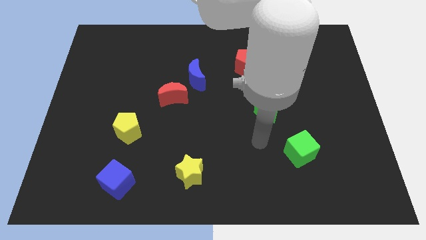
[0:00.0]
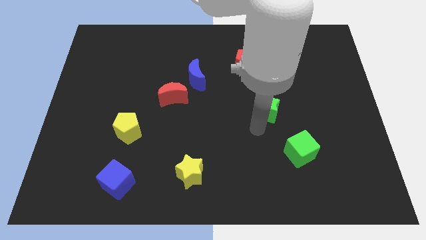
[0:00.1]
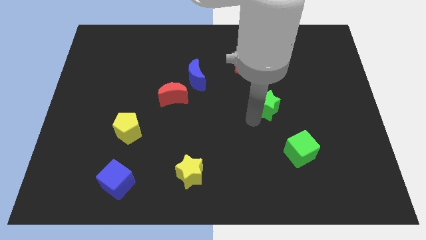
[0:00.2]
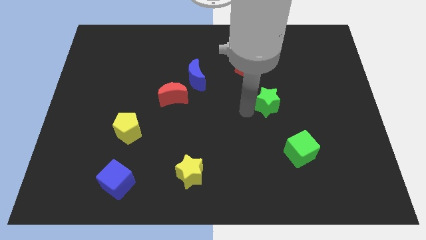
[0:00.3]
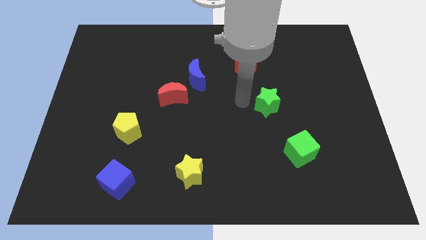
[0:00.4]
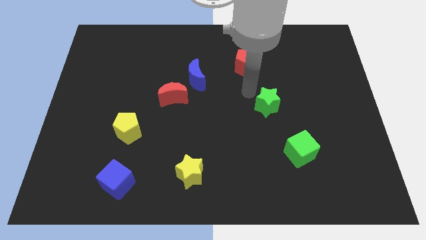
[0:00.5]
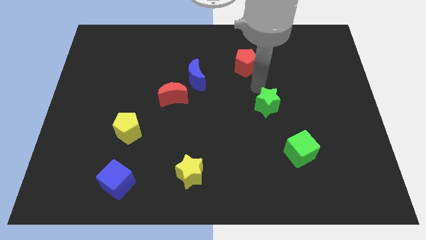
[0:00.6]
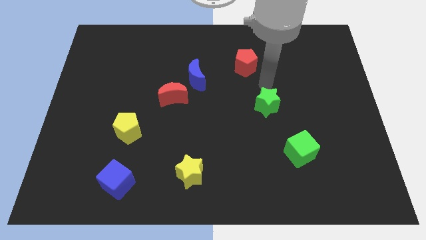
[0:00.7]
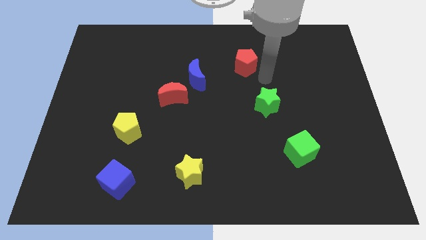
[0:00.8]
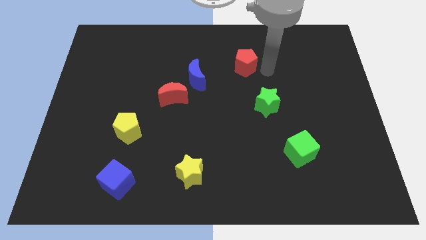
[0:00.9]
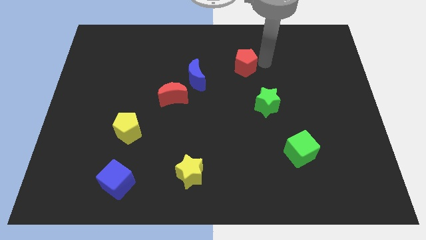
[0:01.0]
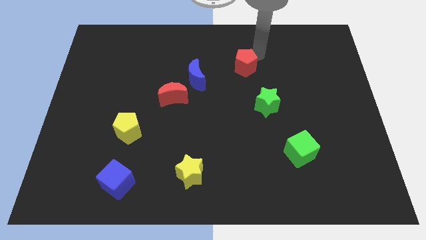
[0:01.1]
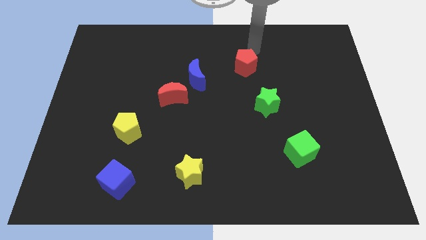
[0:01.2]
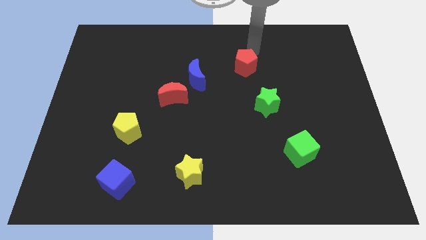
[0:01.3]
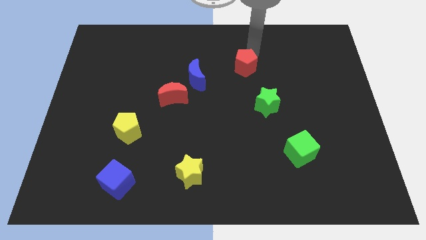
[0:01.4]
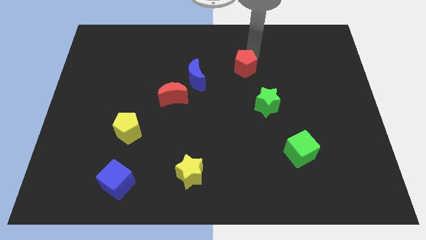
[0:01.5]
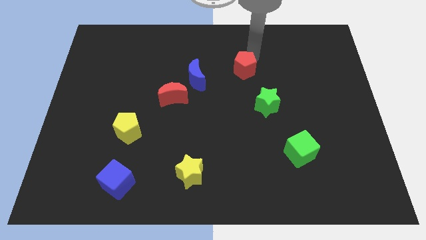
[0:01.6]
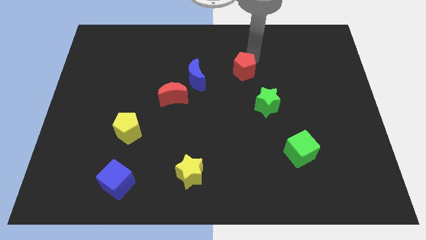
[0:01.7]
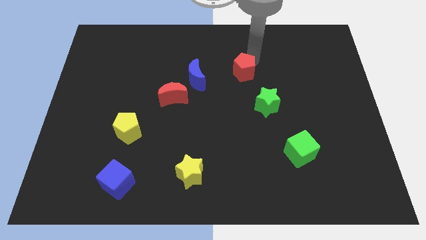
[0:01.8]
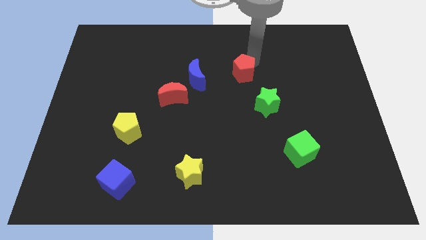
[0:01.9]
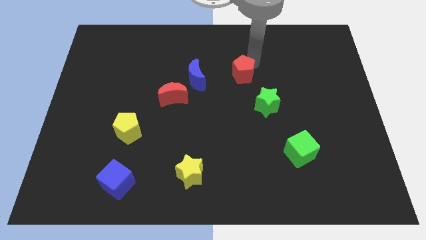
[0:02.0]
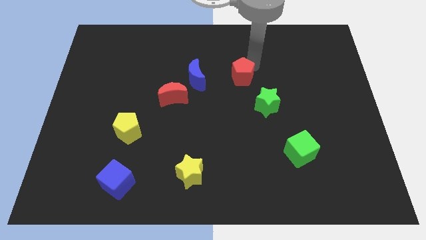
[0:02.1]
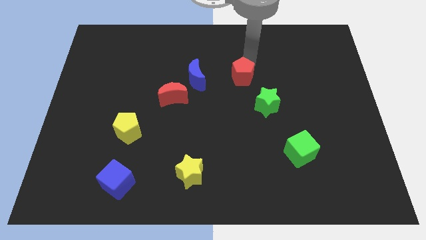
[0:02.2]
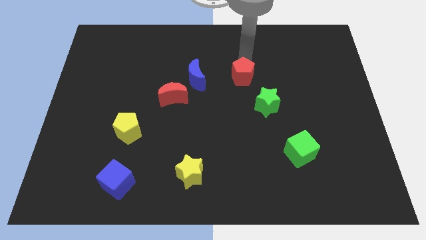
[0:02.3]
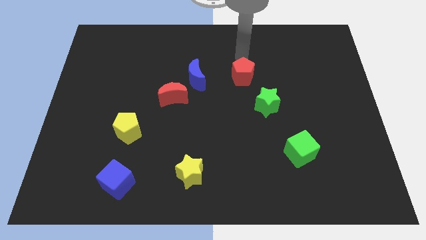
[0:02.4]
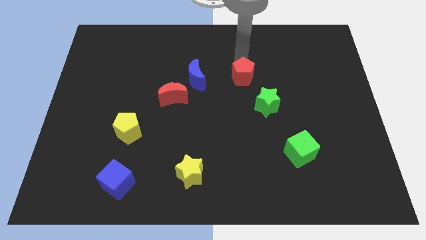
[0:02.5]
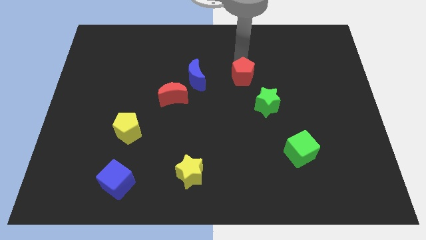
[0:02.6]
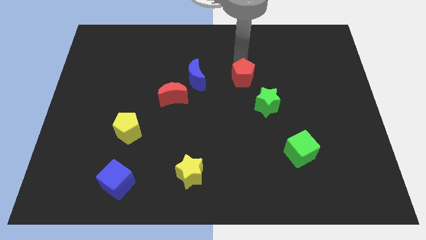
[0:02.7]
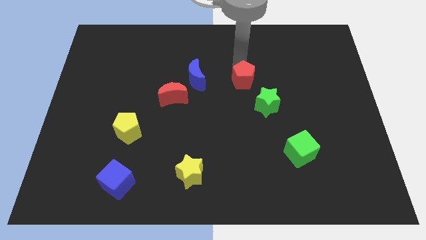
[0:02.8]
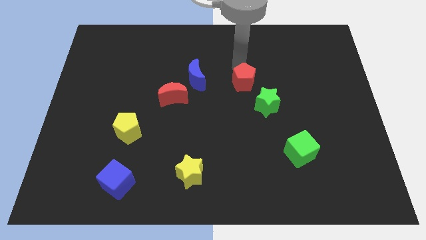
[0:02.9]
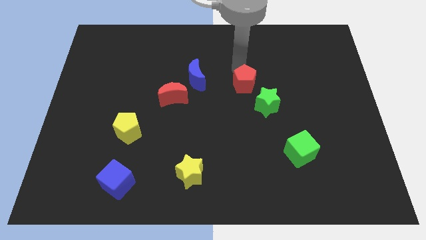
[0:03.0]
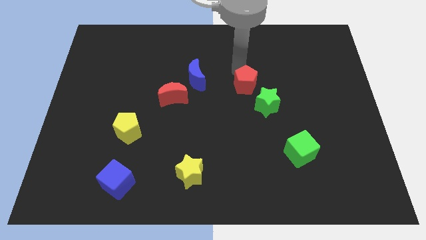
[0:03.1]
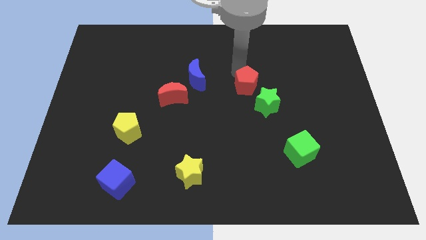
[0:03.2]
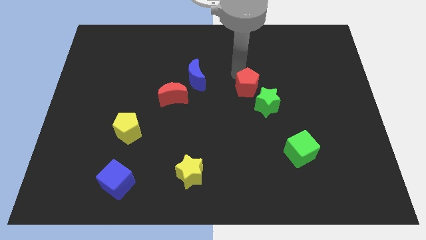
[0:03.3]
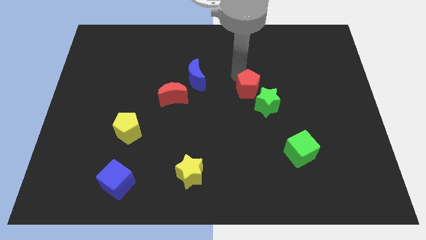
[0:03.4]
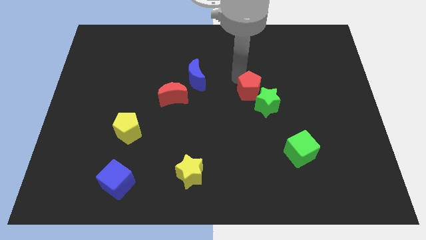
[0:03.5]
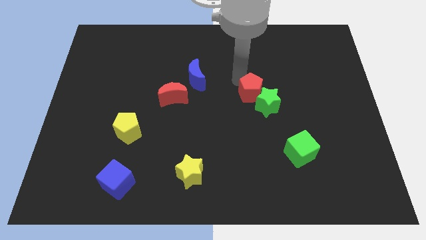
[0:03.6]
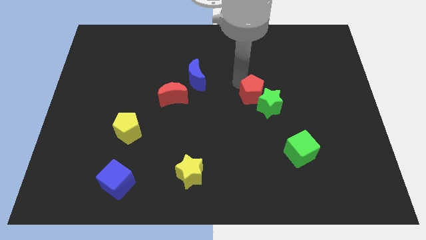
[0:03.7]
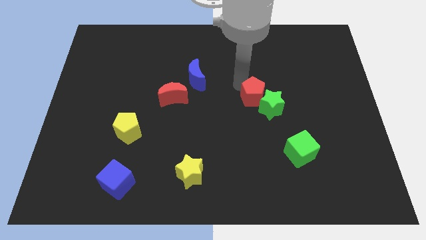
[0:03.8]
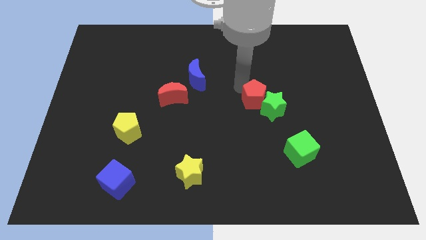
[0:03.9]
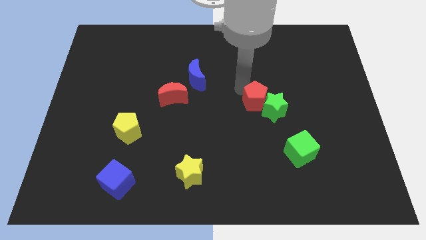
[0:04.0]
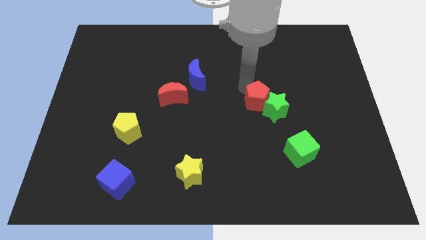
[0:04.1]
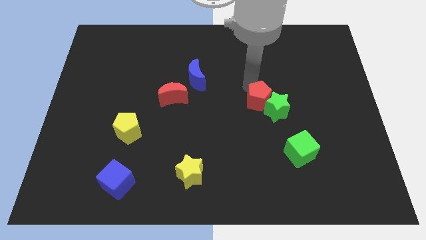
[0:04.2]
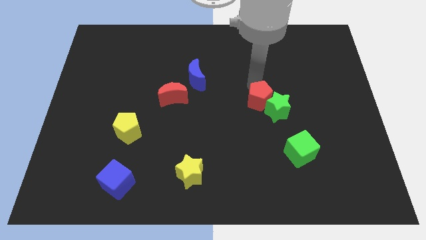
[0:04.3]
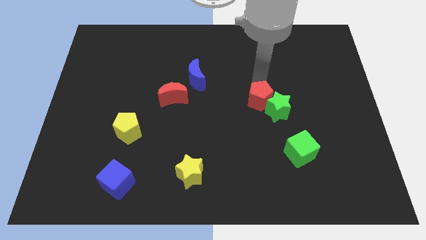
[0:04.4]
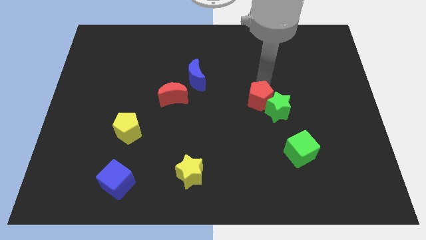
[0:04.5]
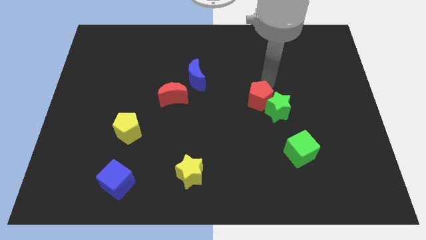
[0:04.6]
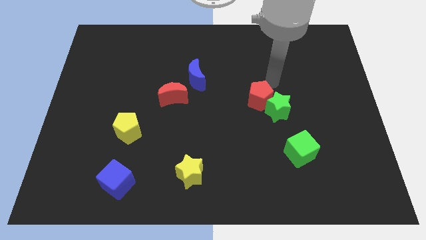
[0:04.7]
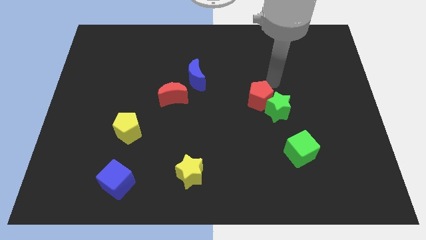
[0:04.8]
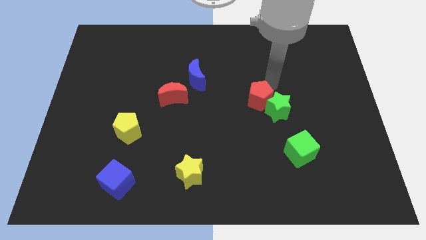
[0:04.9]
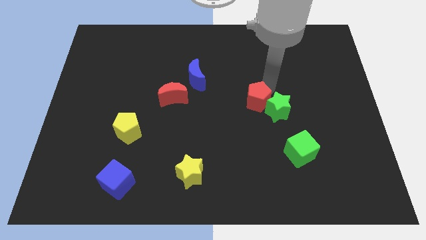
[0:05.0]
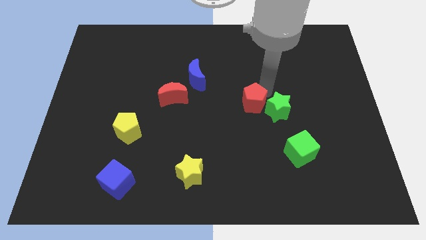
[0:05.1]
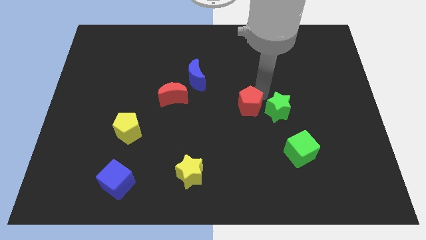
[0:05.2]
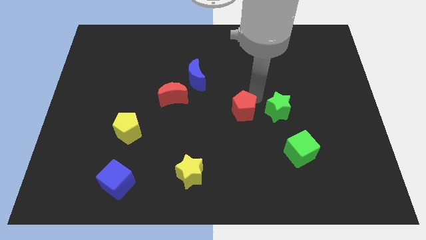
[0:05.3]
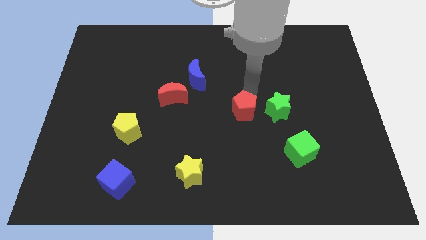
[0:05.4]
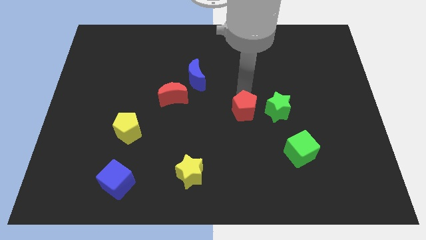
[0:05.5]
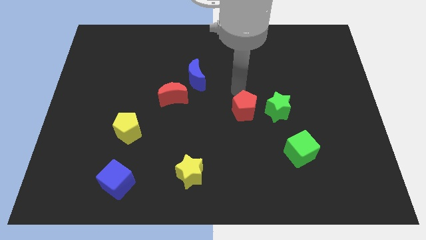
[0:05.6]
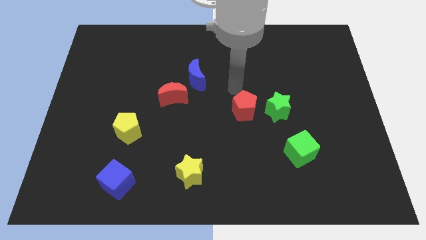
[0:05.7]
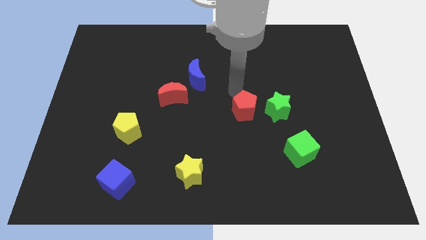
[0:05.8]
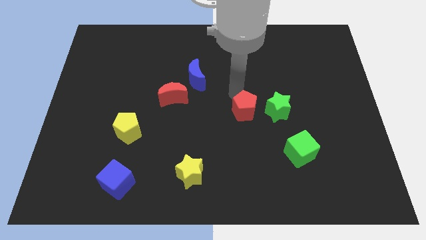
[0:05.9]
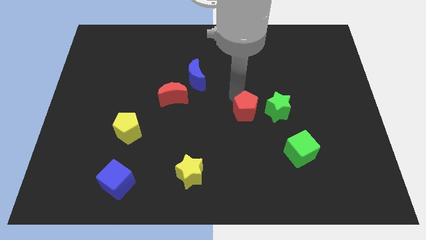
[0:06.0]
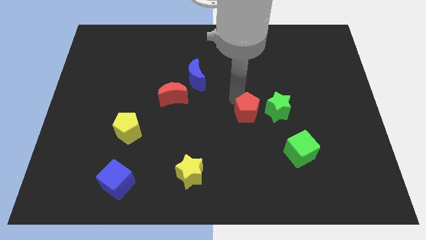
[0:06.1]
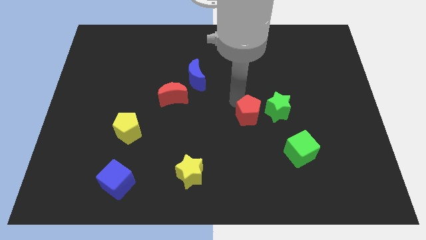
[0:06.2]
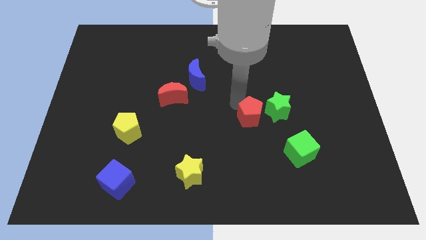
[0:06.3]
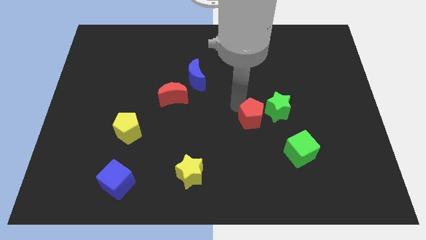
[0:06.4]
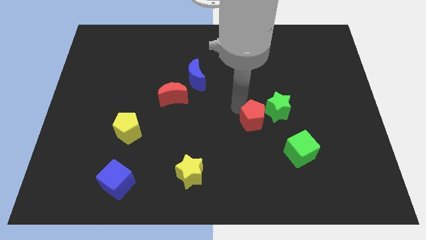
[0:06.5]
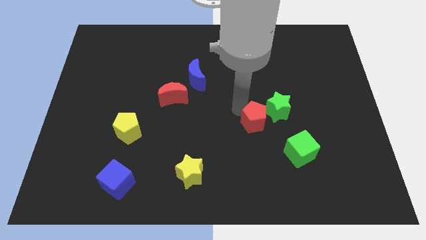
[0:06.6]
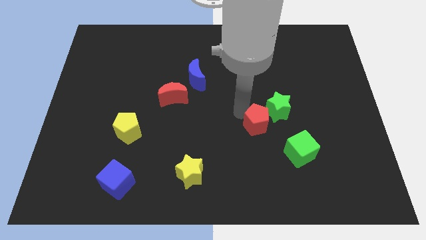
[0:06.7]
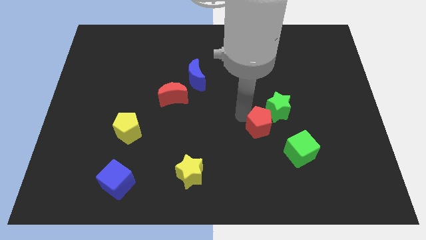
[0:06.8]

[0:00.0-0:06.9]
push the red pentagon below the green star
